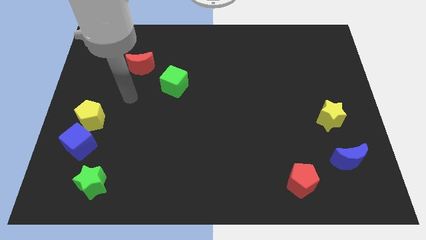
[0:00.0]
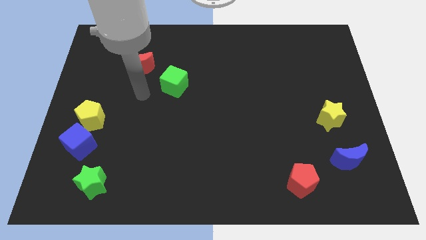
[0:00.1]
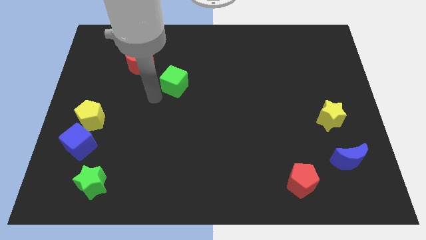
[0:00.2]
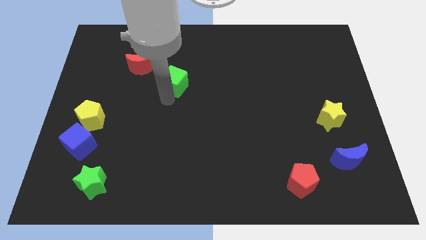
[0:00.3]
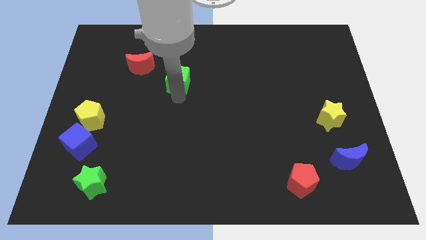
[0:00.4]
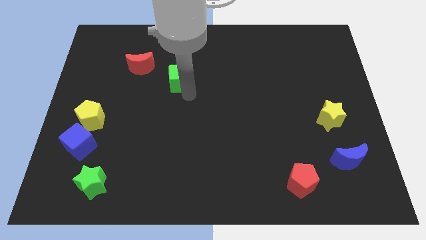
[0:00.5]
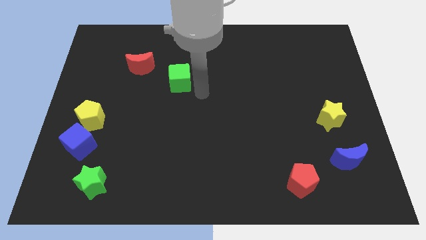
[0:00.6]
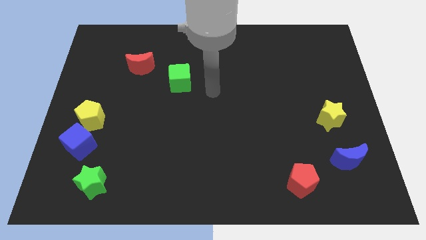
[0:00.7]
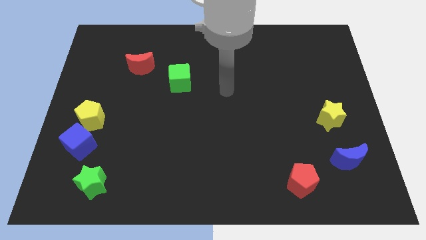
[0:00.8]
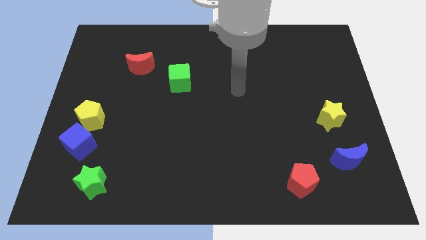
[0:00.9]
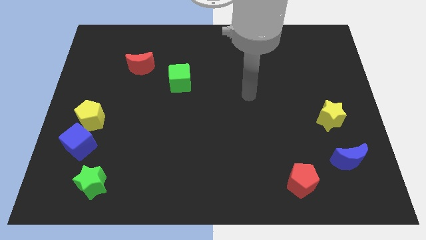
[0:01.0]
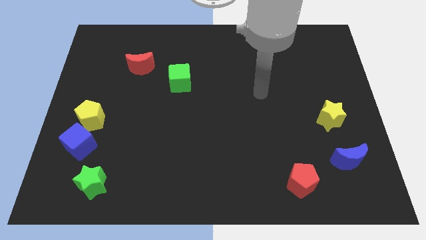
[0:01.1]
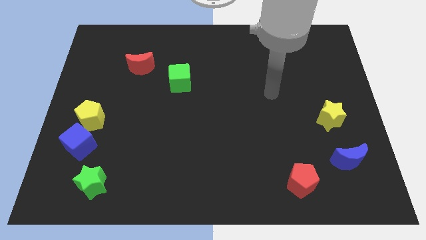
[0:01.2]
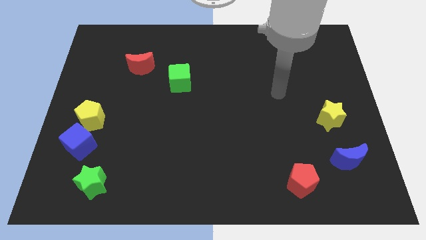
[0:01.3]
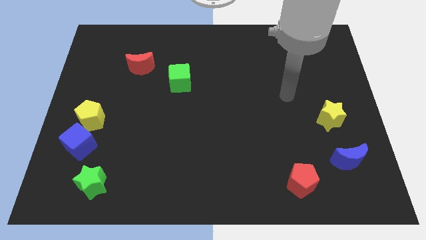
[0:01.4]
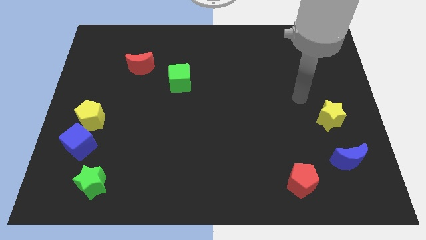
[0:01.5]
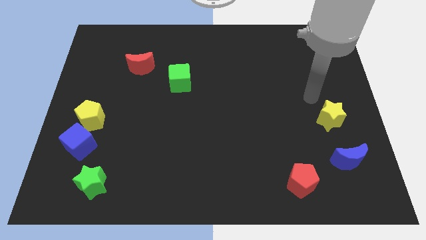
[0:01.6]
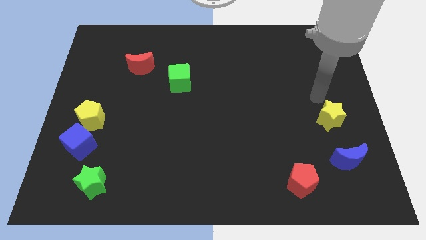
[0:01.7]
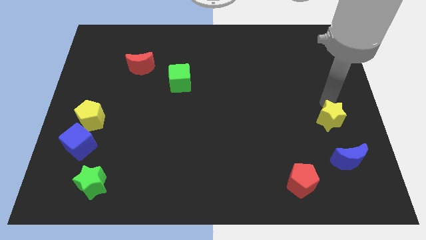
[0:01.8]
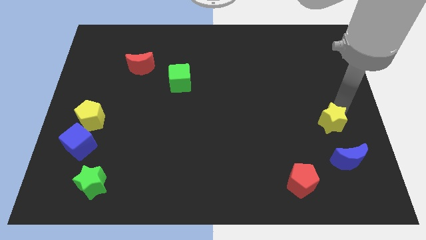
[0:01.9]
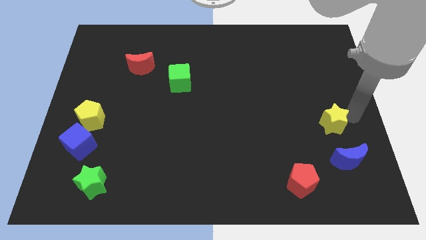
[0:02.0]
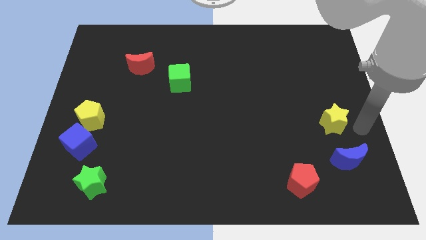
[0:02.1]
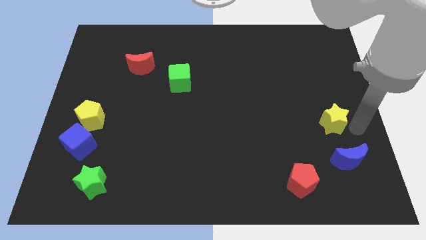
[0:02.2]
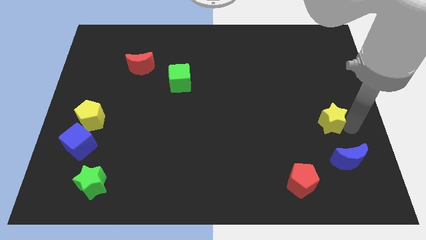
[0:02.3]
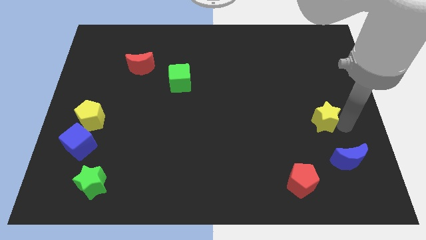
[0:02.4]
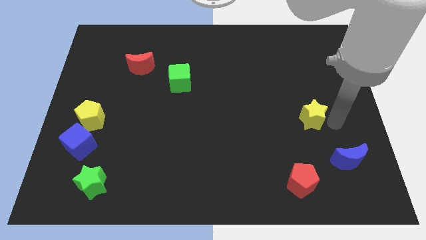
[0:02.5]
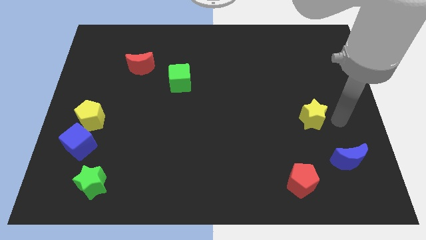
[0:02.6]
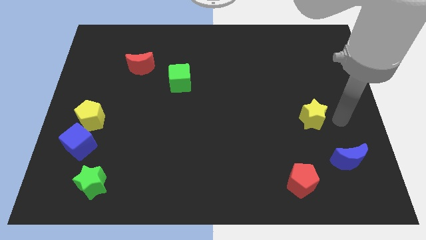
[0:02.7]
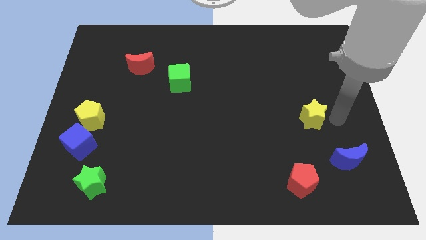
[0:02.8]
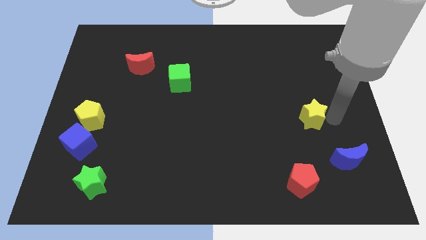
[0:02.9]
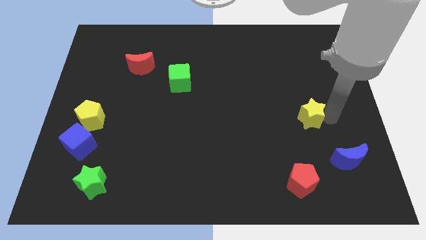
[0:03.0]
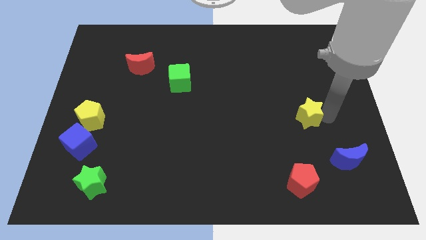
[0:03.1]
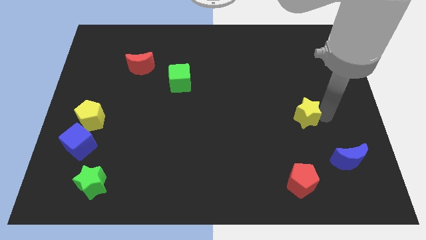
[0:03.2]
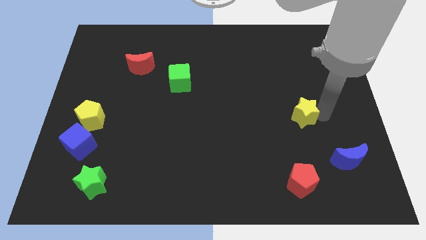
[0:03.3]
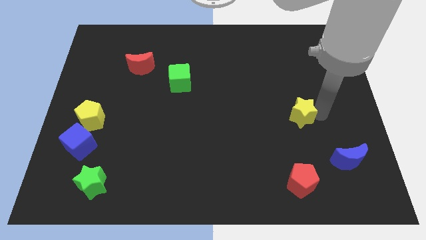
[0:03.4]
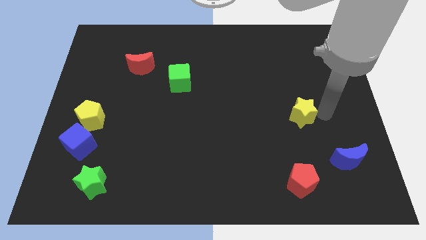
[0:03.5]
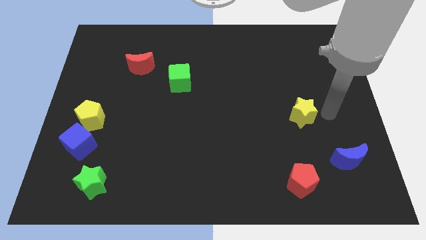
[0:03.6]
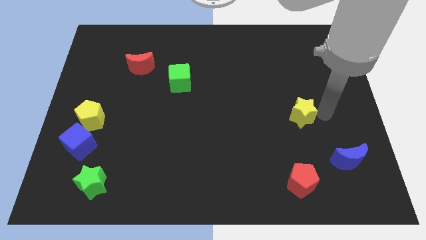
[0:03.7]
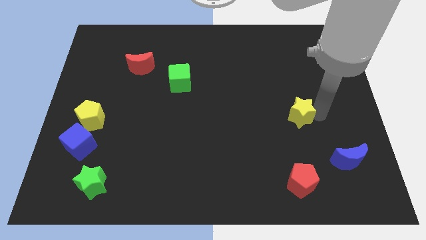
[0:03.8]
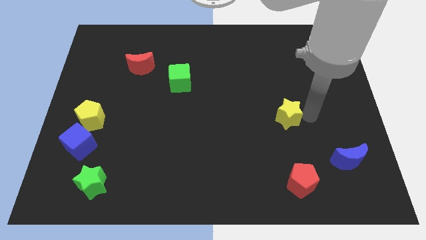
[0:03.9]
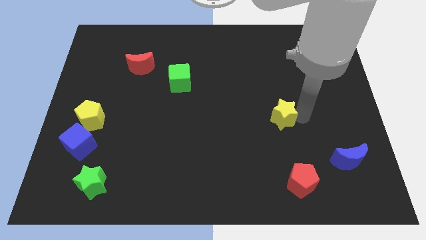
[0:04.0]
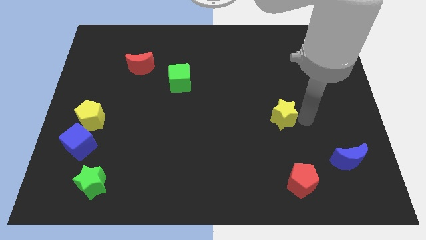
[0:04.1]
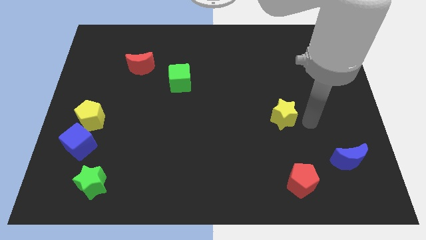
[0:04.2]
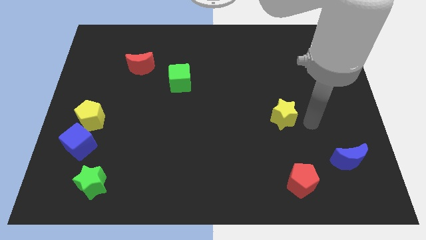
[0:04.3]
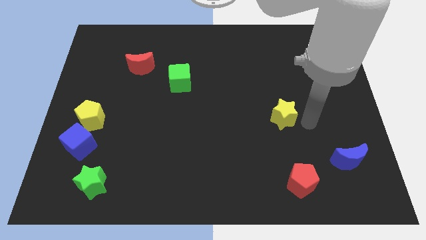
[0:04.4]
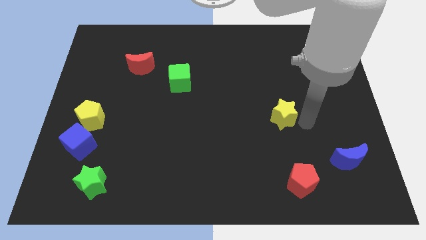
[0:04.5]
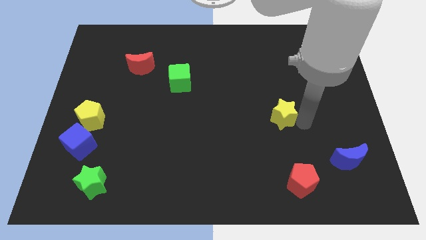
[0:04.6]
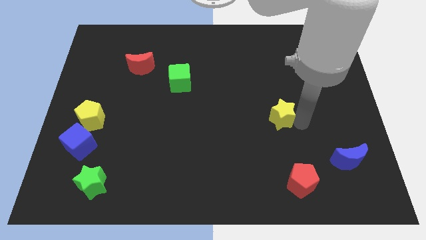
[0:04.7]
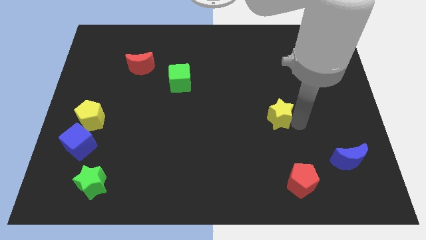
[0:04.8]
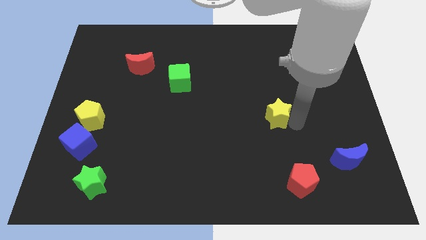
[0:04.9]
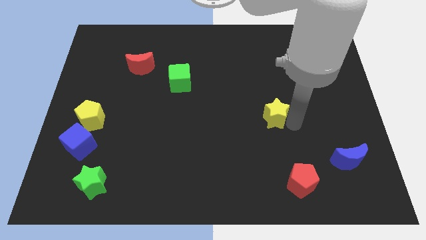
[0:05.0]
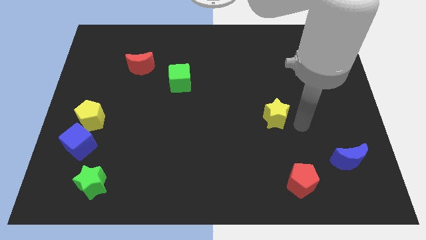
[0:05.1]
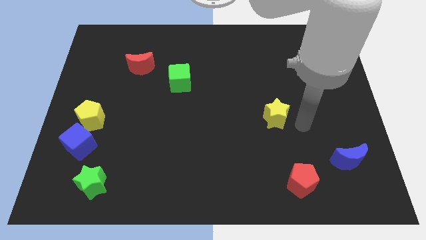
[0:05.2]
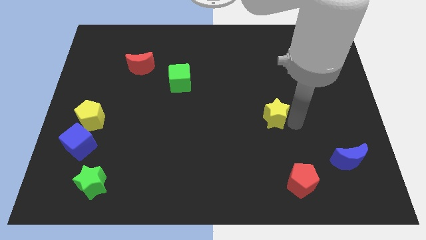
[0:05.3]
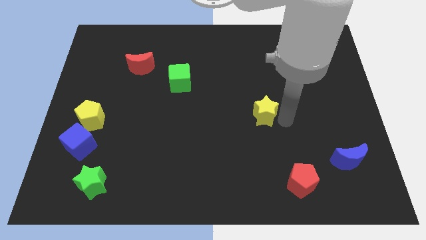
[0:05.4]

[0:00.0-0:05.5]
push the yellow star to the middle
